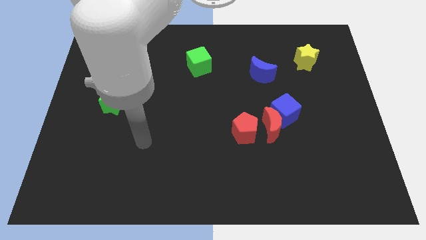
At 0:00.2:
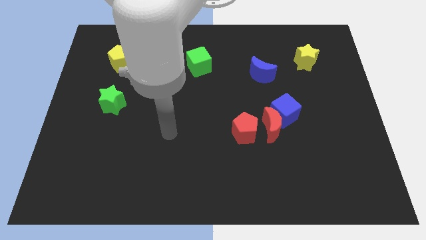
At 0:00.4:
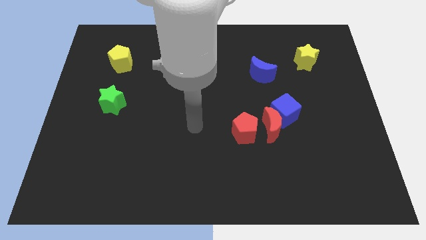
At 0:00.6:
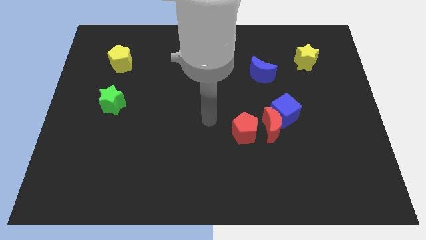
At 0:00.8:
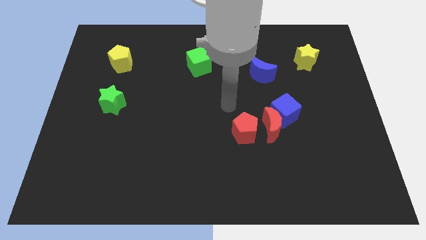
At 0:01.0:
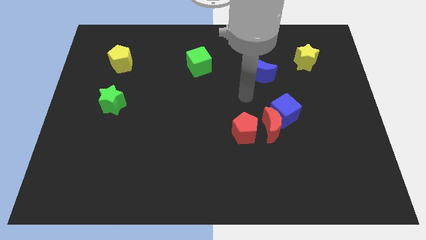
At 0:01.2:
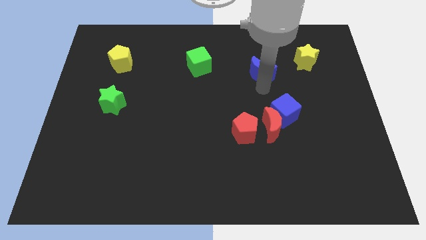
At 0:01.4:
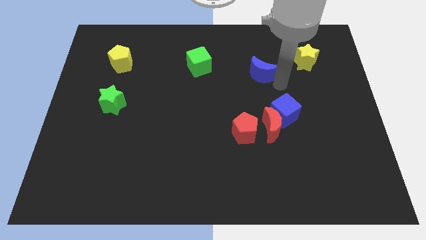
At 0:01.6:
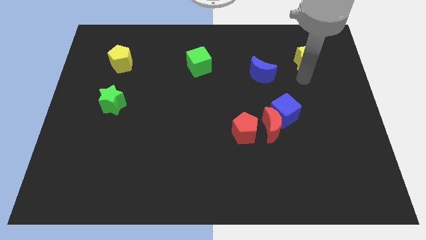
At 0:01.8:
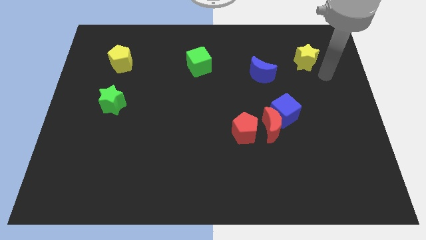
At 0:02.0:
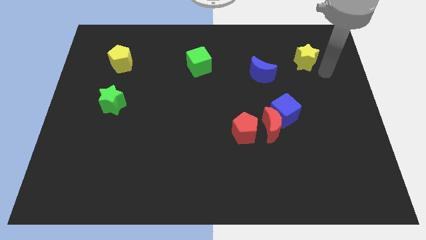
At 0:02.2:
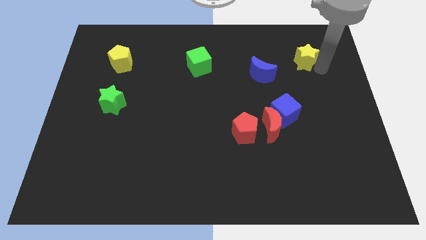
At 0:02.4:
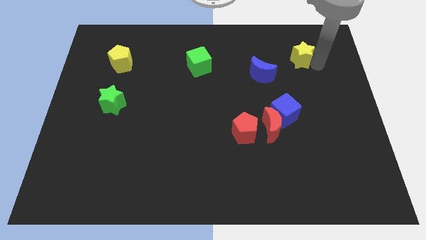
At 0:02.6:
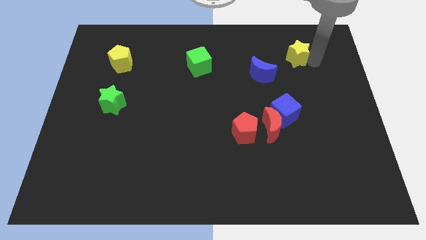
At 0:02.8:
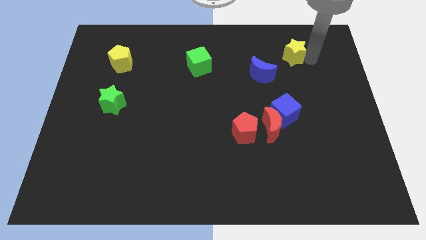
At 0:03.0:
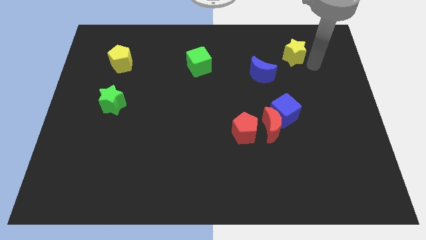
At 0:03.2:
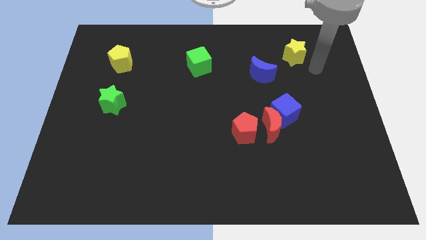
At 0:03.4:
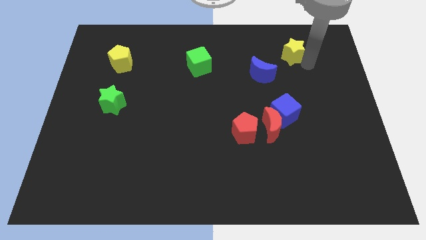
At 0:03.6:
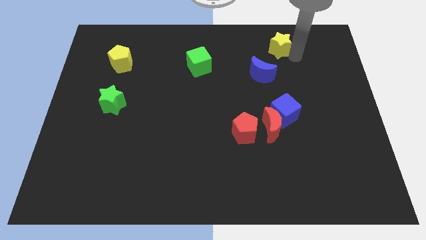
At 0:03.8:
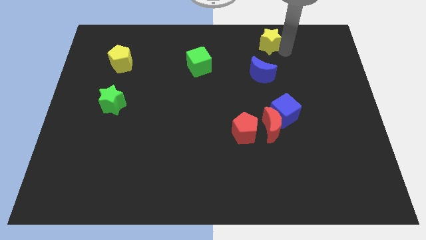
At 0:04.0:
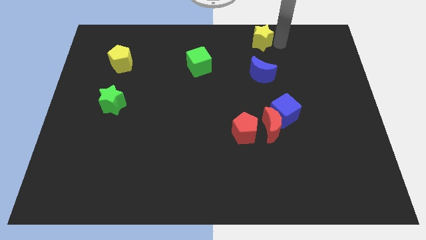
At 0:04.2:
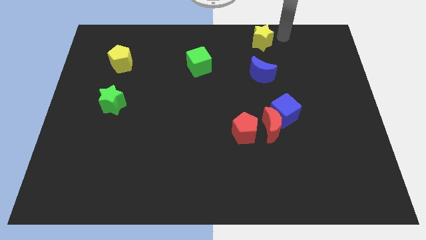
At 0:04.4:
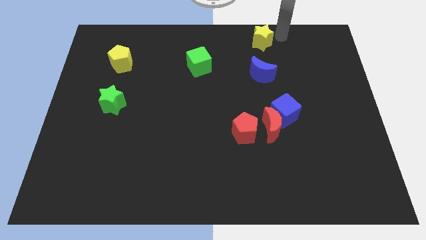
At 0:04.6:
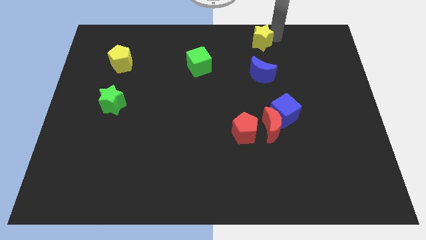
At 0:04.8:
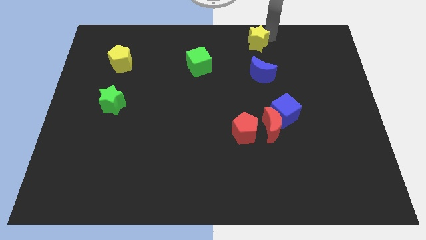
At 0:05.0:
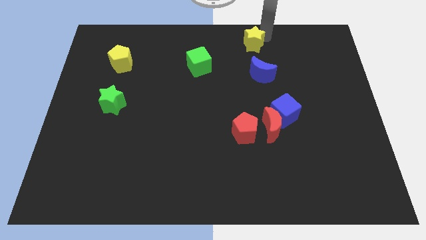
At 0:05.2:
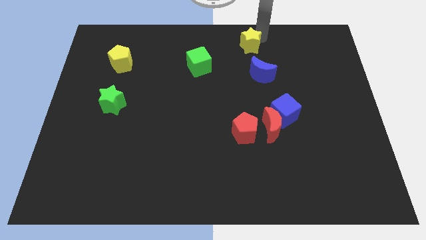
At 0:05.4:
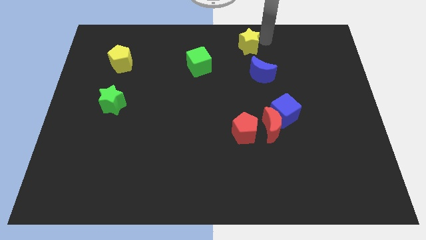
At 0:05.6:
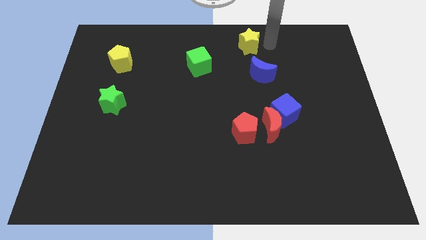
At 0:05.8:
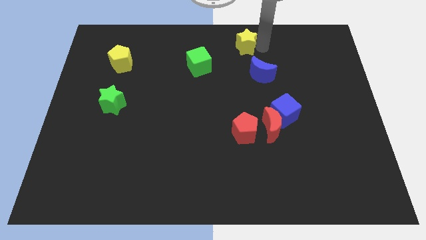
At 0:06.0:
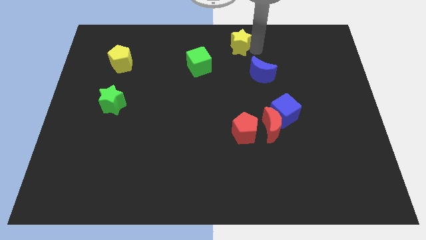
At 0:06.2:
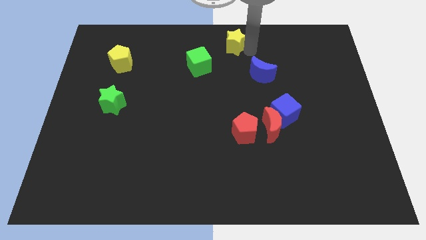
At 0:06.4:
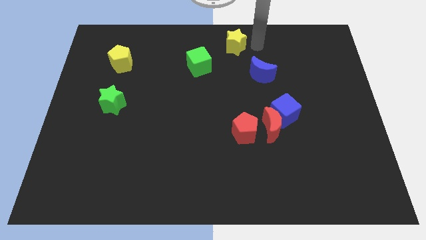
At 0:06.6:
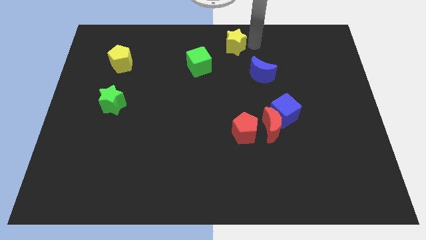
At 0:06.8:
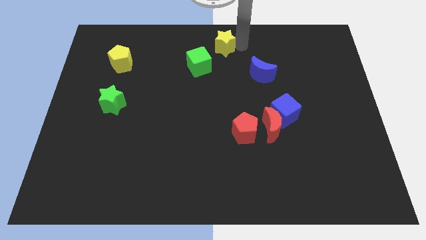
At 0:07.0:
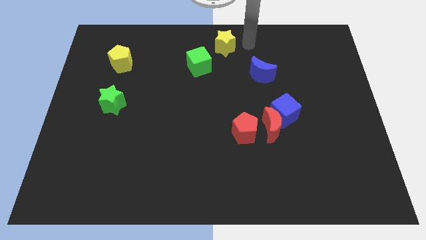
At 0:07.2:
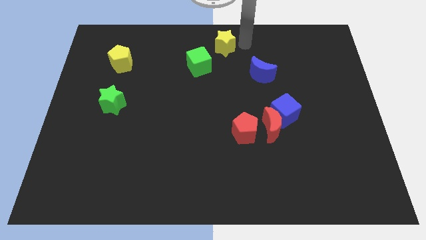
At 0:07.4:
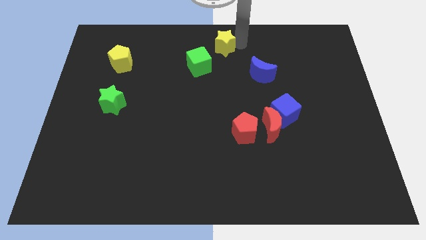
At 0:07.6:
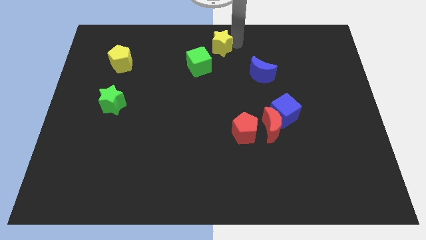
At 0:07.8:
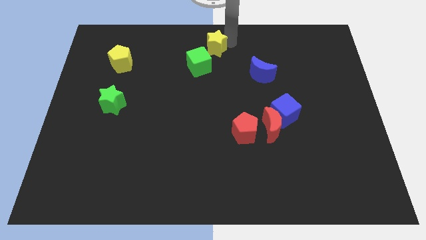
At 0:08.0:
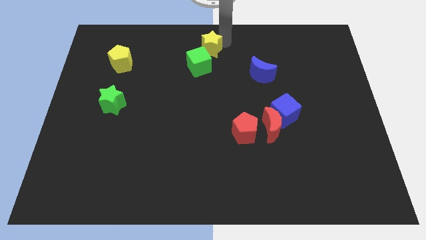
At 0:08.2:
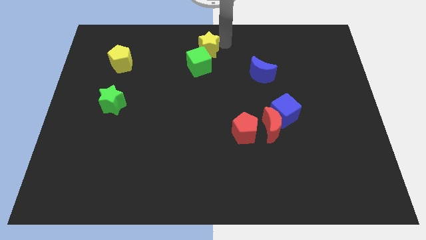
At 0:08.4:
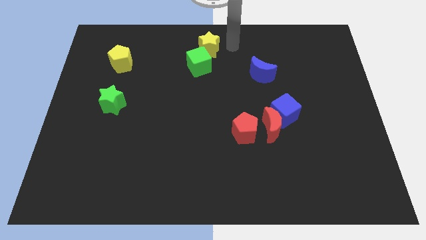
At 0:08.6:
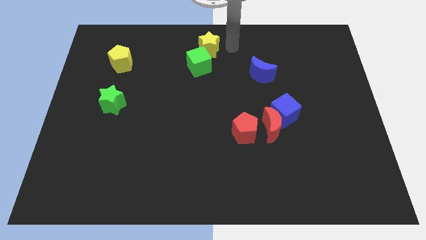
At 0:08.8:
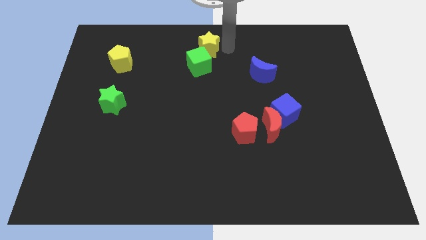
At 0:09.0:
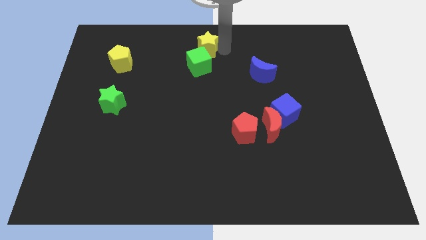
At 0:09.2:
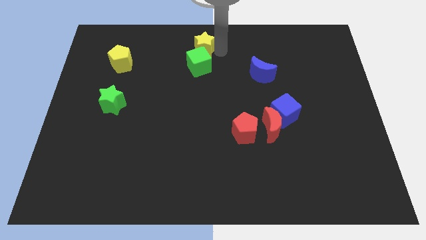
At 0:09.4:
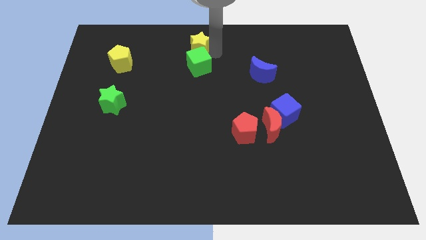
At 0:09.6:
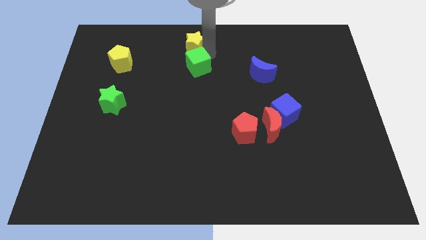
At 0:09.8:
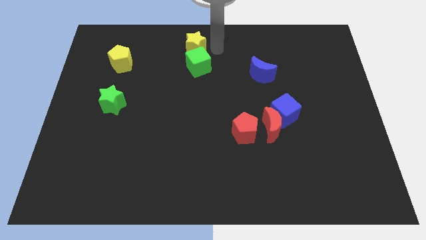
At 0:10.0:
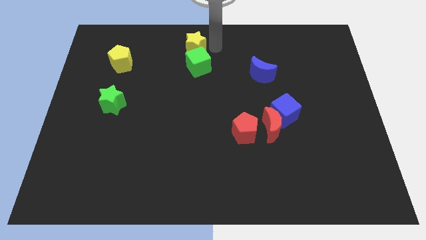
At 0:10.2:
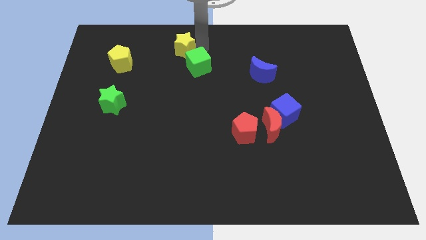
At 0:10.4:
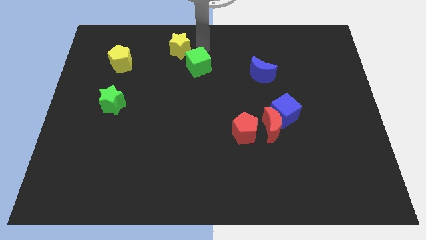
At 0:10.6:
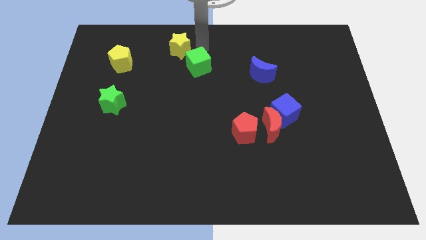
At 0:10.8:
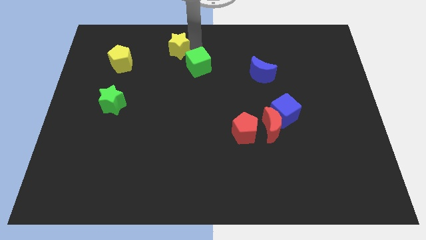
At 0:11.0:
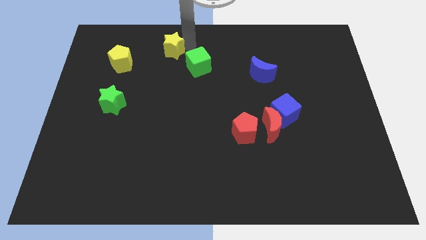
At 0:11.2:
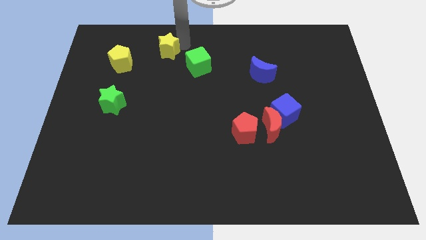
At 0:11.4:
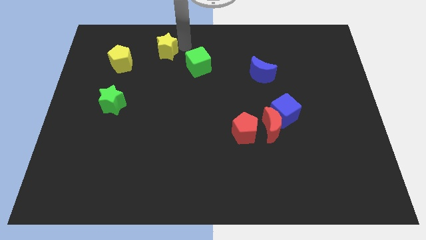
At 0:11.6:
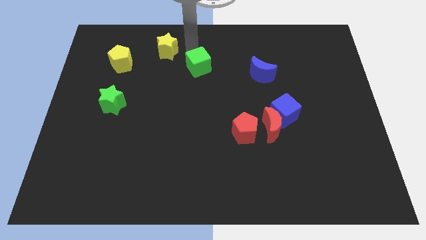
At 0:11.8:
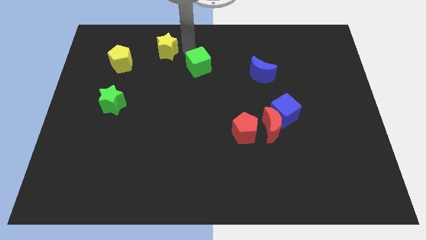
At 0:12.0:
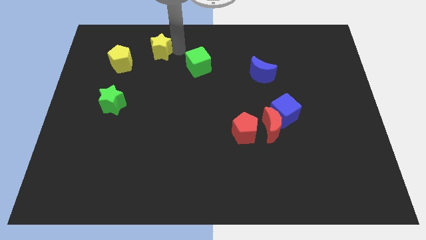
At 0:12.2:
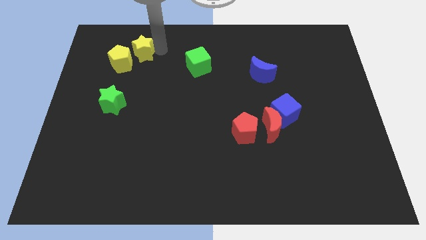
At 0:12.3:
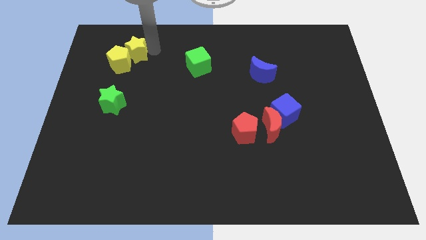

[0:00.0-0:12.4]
slide the yellow star to the yellow pentagon

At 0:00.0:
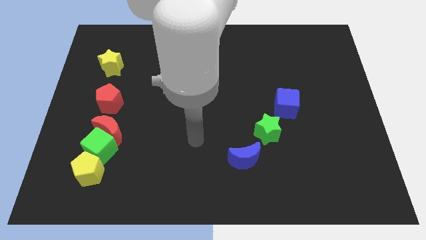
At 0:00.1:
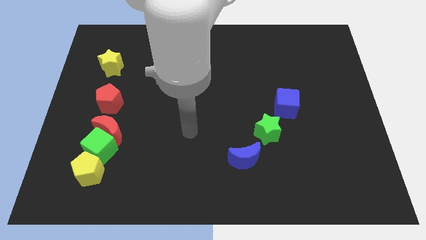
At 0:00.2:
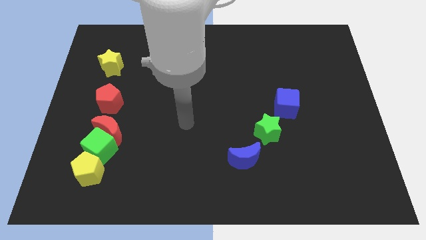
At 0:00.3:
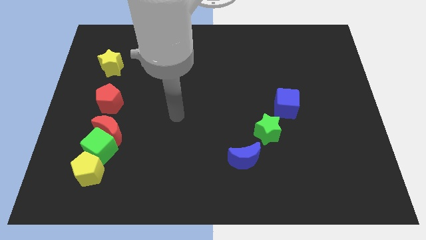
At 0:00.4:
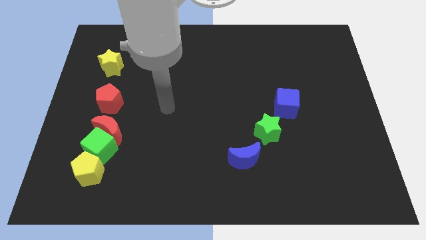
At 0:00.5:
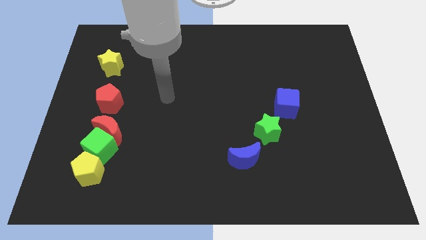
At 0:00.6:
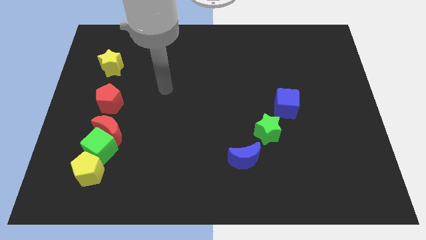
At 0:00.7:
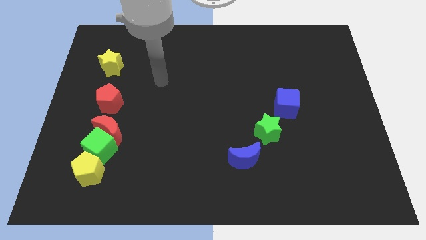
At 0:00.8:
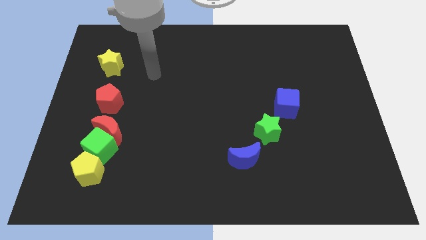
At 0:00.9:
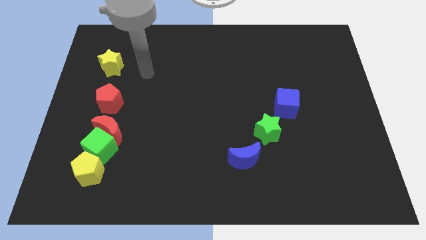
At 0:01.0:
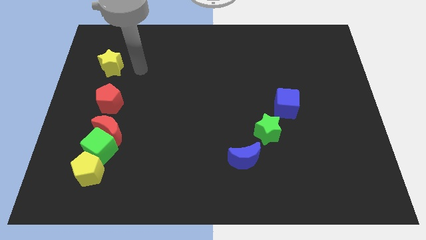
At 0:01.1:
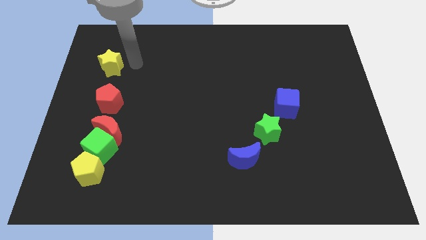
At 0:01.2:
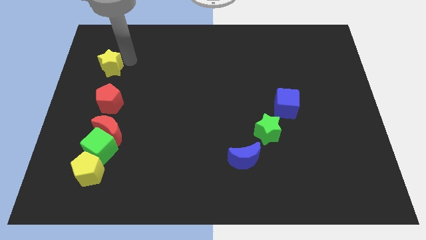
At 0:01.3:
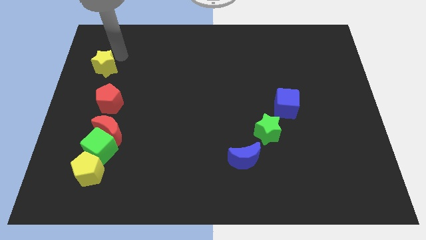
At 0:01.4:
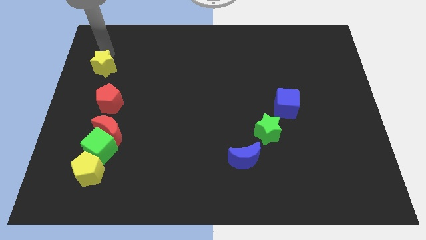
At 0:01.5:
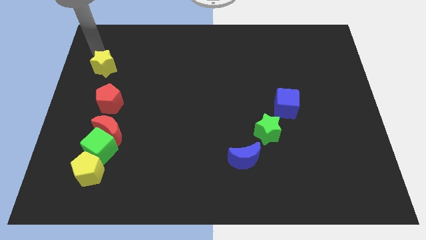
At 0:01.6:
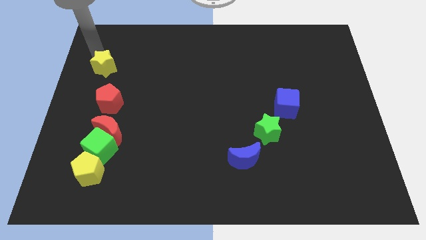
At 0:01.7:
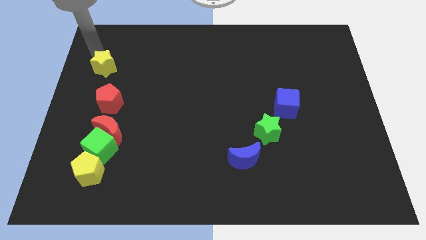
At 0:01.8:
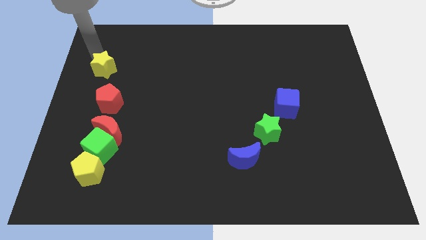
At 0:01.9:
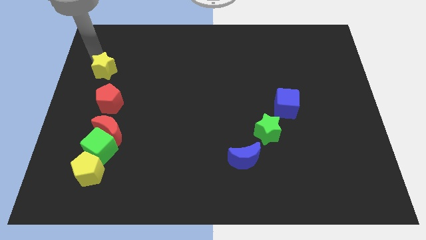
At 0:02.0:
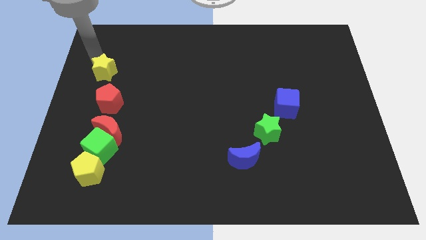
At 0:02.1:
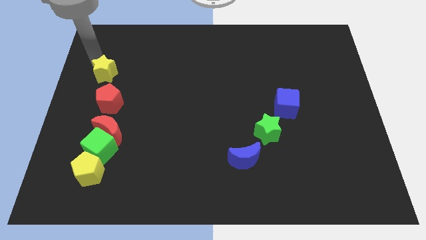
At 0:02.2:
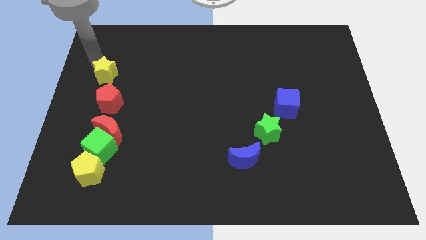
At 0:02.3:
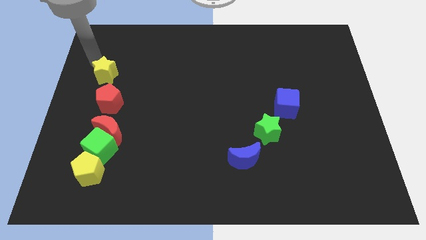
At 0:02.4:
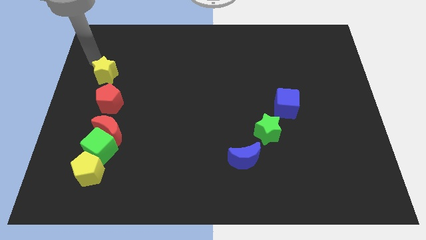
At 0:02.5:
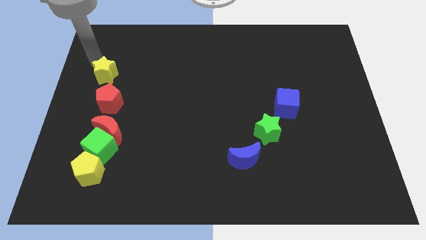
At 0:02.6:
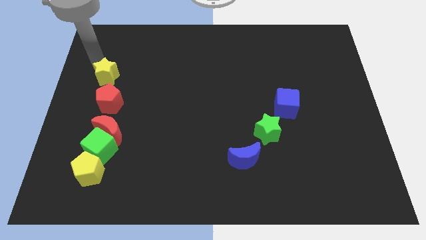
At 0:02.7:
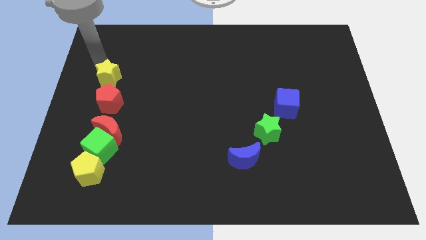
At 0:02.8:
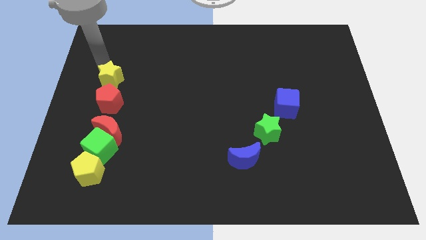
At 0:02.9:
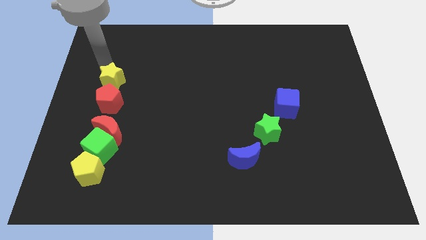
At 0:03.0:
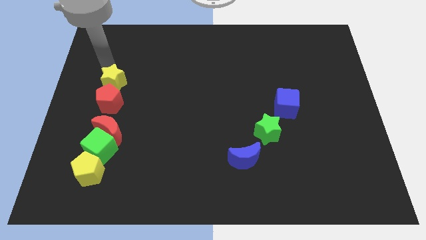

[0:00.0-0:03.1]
move the yellow star to the red pentagon
